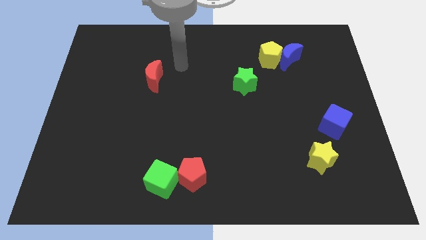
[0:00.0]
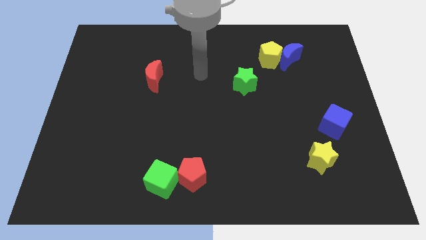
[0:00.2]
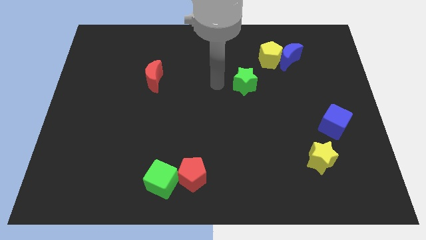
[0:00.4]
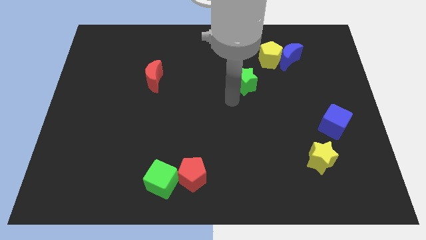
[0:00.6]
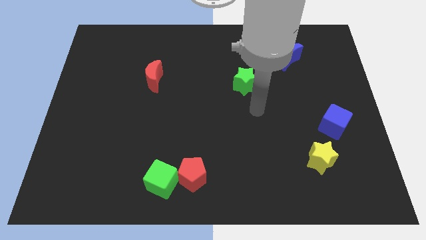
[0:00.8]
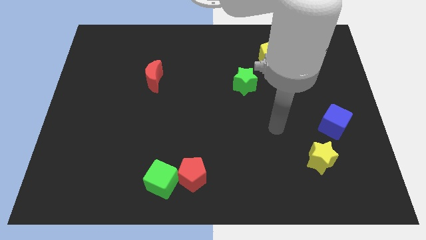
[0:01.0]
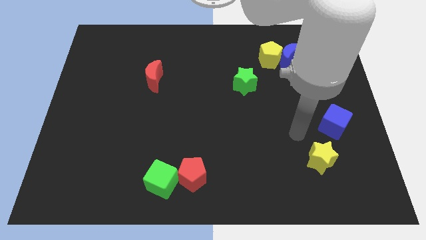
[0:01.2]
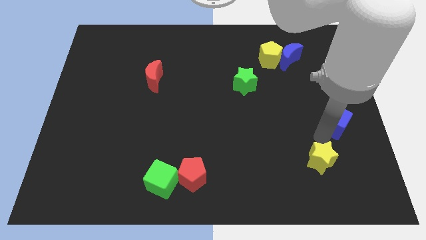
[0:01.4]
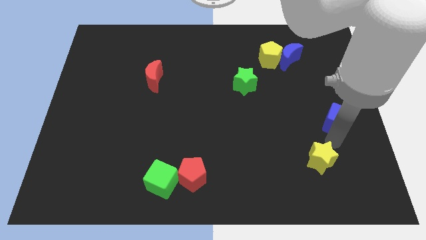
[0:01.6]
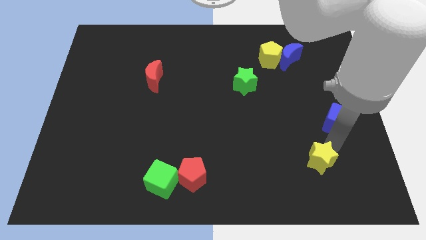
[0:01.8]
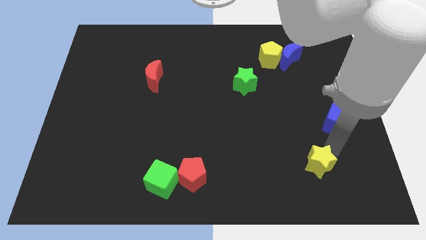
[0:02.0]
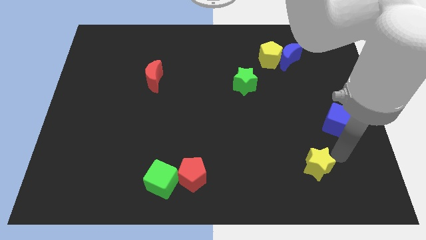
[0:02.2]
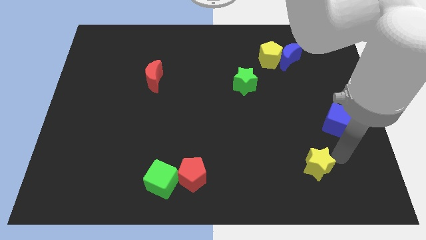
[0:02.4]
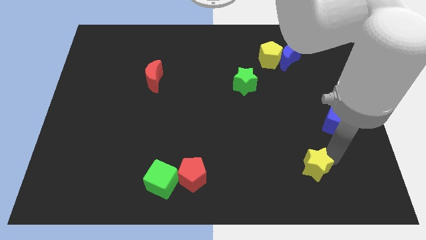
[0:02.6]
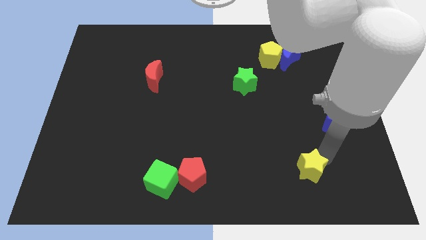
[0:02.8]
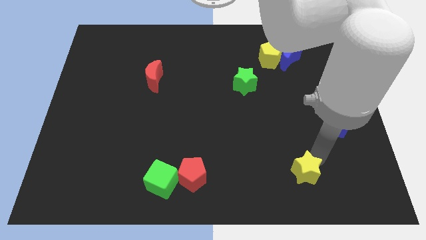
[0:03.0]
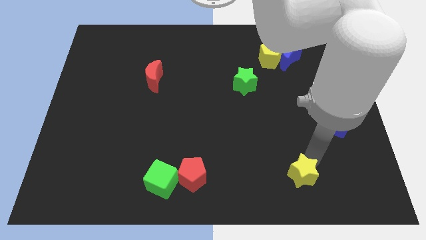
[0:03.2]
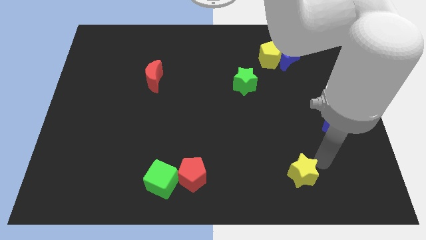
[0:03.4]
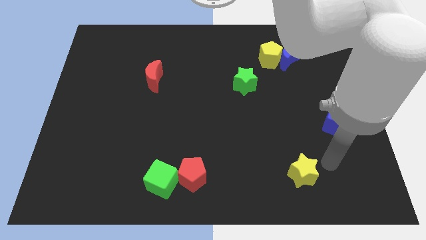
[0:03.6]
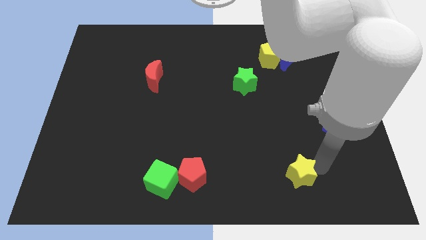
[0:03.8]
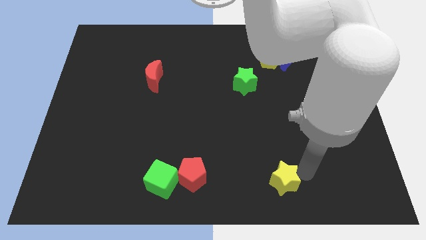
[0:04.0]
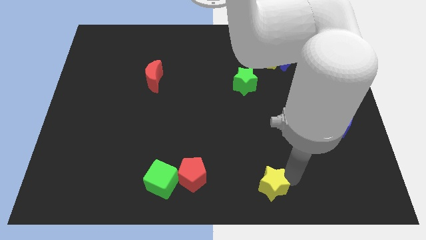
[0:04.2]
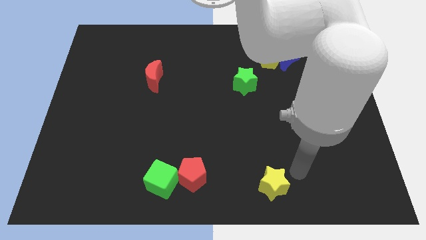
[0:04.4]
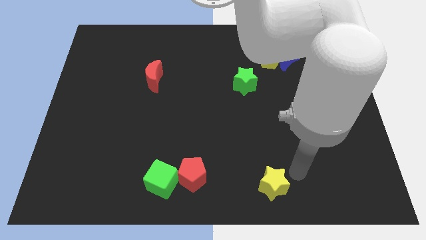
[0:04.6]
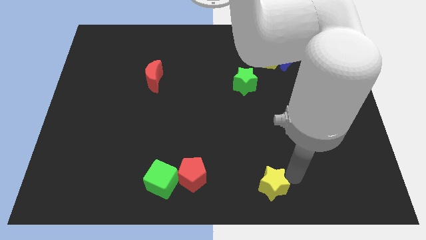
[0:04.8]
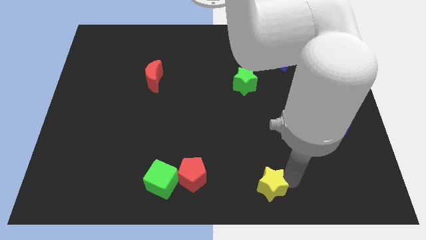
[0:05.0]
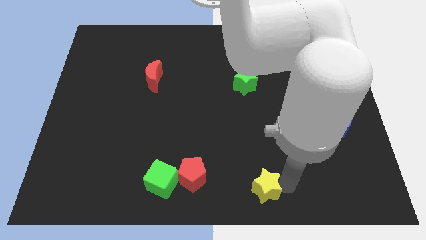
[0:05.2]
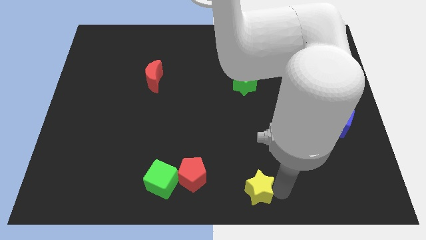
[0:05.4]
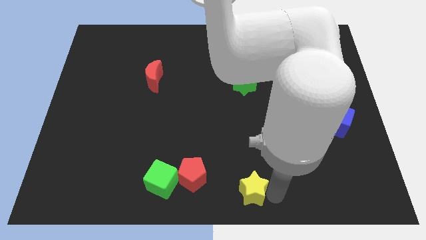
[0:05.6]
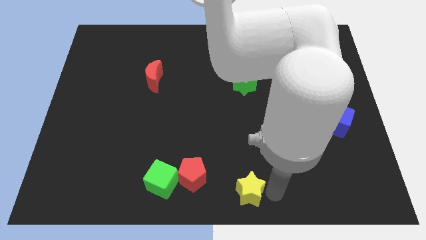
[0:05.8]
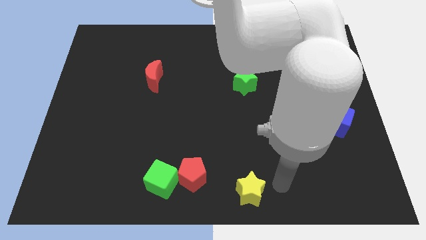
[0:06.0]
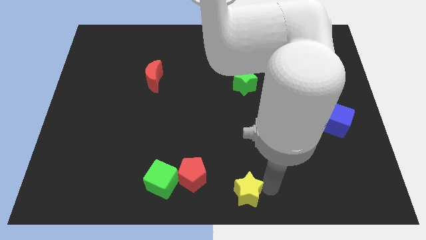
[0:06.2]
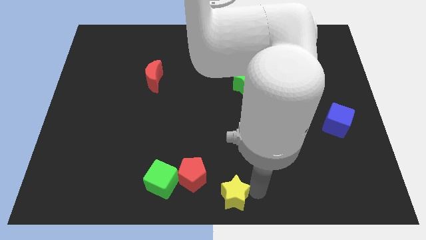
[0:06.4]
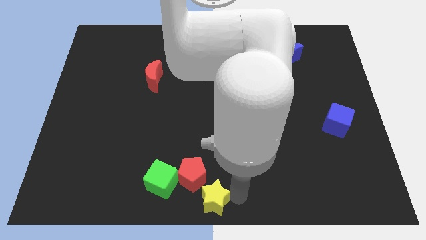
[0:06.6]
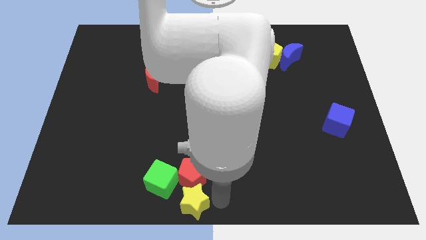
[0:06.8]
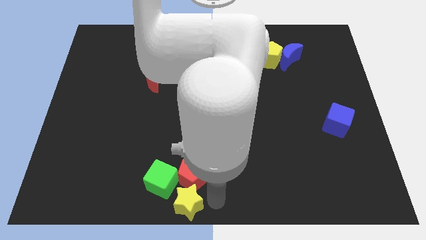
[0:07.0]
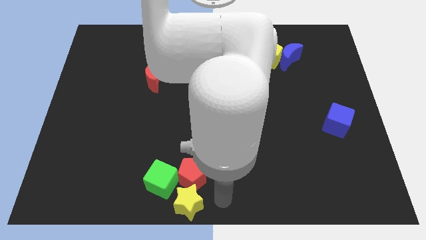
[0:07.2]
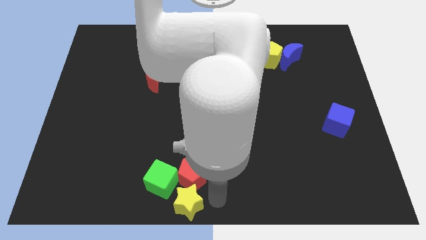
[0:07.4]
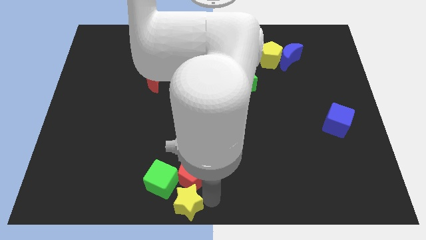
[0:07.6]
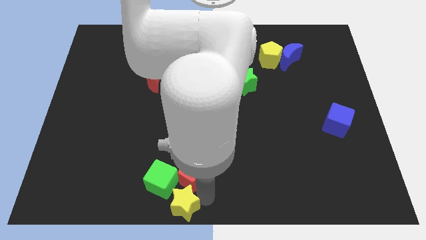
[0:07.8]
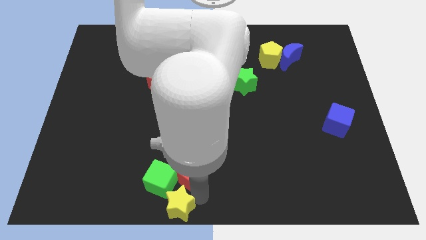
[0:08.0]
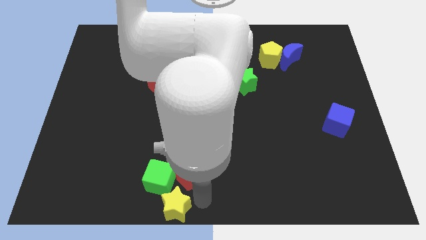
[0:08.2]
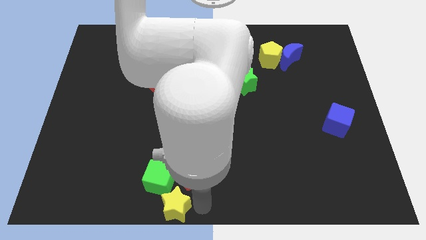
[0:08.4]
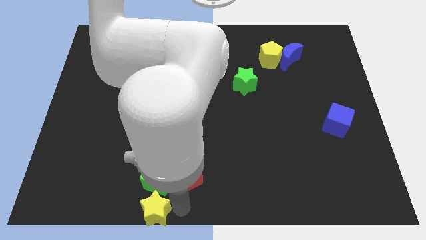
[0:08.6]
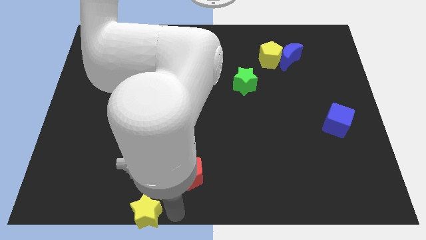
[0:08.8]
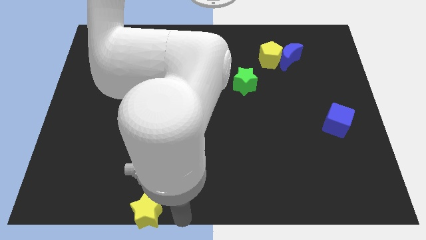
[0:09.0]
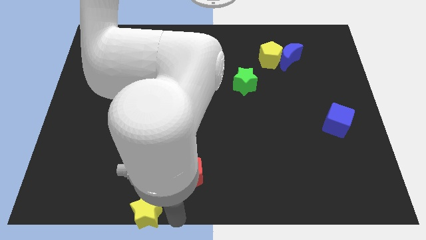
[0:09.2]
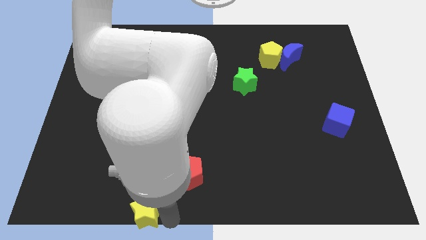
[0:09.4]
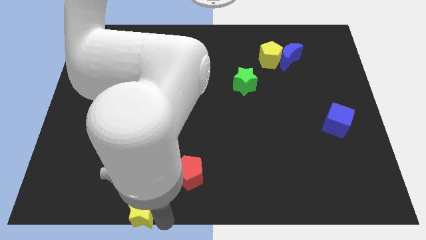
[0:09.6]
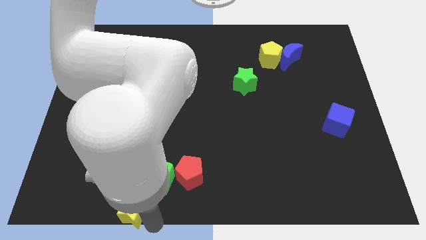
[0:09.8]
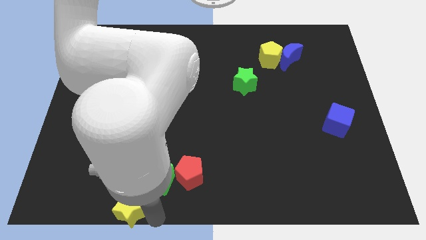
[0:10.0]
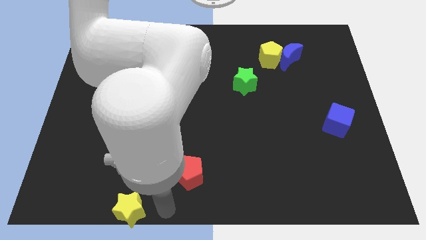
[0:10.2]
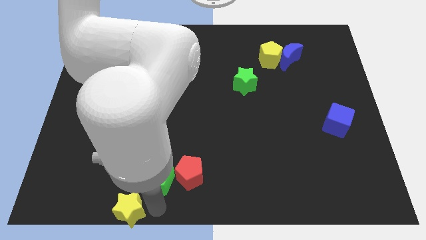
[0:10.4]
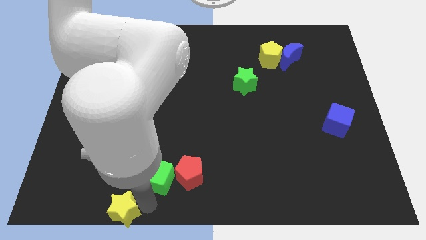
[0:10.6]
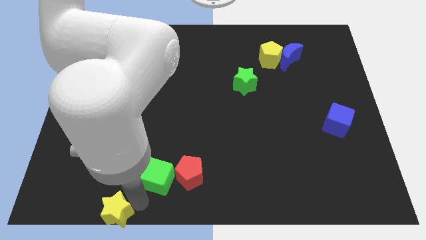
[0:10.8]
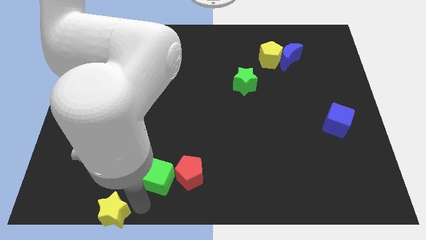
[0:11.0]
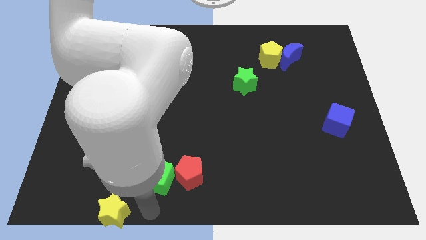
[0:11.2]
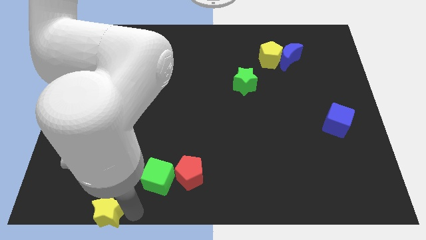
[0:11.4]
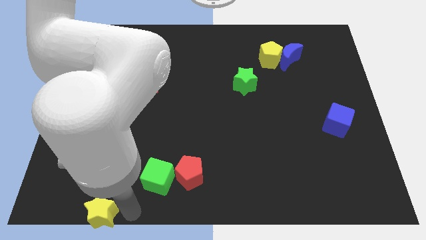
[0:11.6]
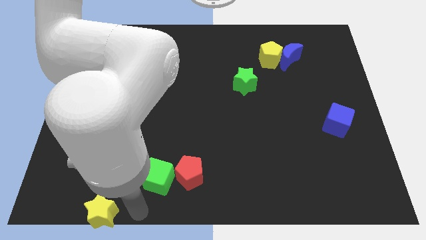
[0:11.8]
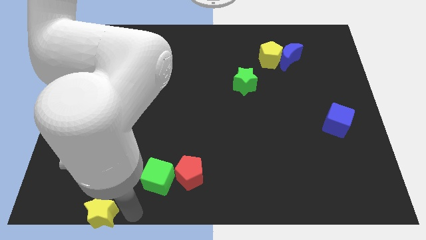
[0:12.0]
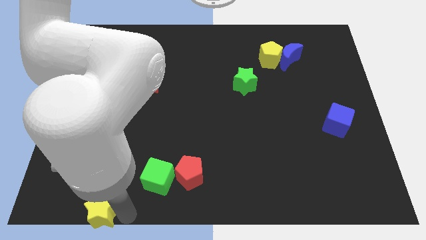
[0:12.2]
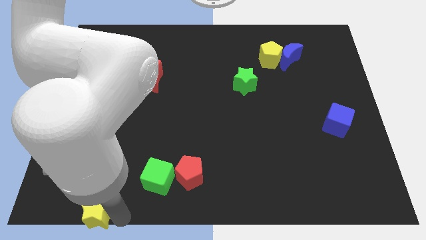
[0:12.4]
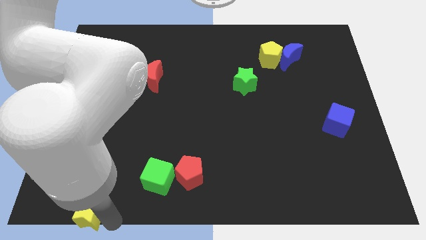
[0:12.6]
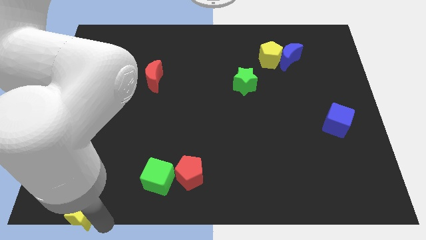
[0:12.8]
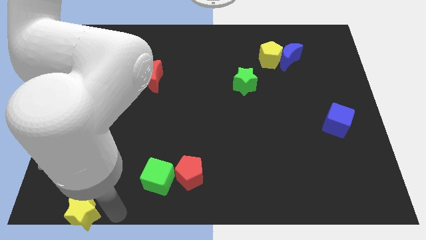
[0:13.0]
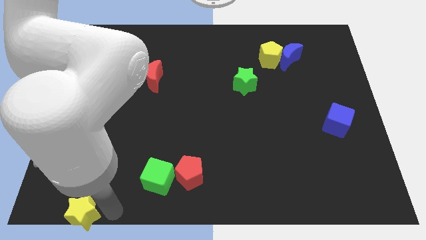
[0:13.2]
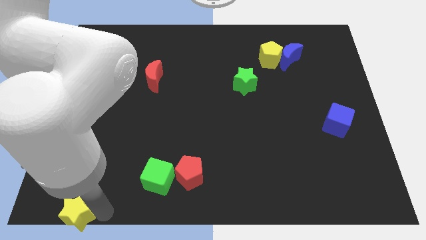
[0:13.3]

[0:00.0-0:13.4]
put the yellow star to the bottom left corner
